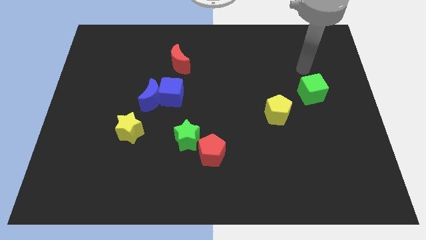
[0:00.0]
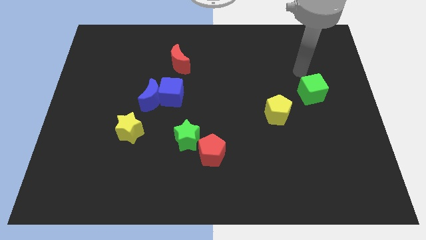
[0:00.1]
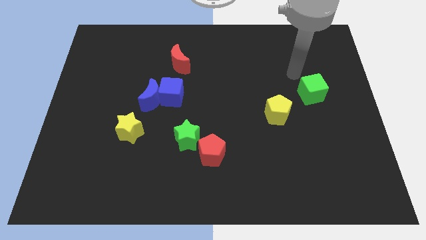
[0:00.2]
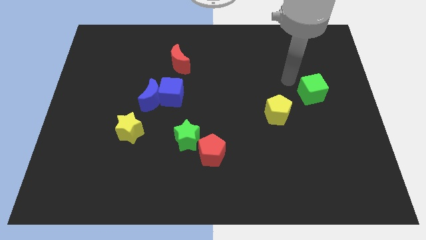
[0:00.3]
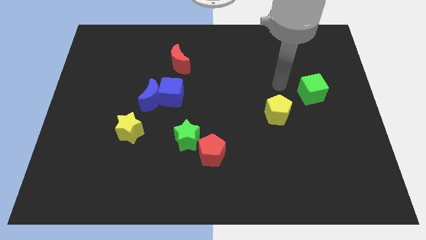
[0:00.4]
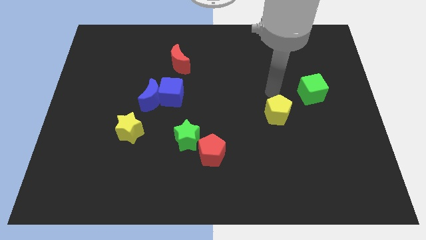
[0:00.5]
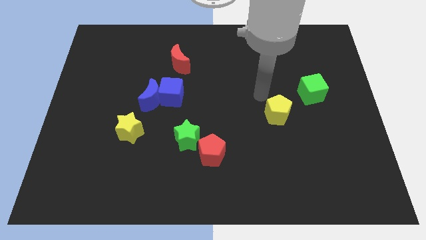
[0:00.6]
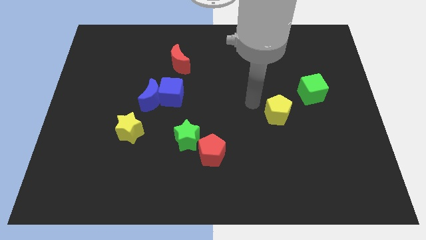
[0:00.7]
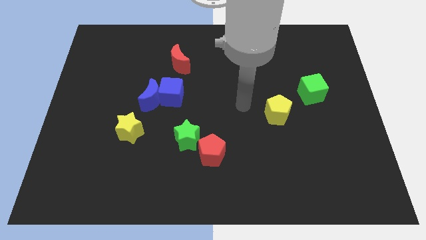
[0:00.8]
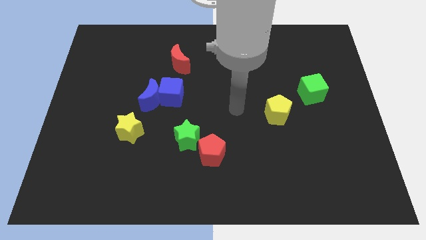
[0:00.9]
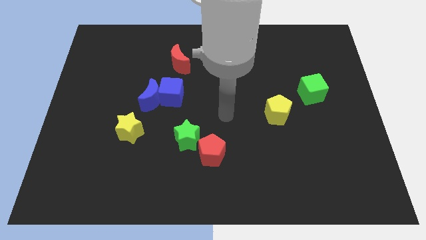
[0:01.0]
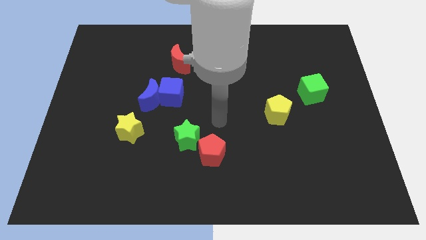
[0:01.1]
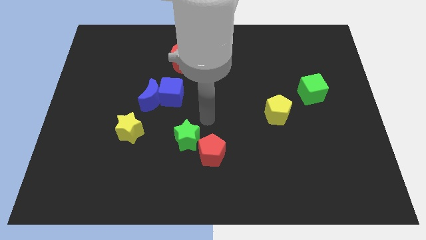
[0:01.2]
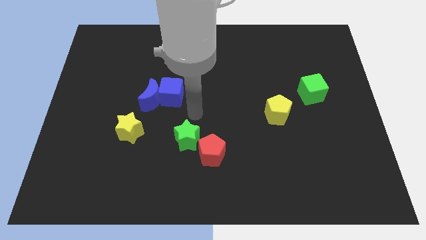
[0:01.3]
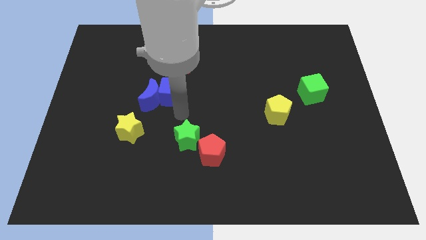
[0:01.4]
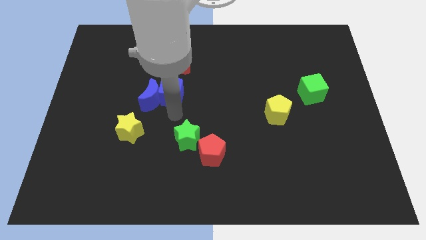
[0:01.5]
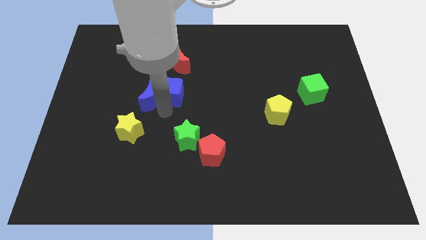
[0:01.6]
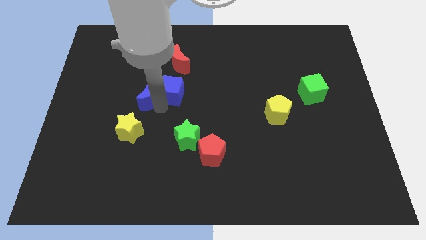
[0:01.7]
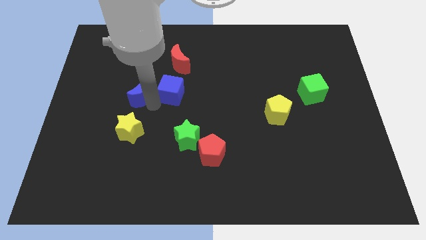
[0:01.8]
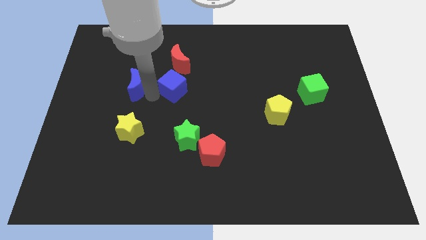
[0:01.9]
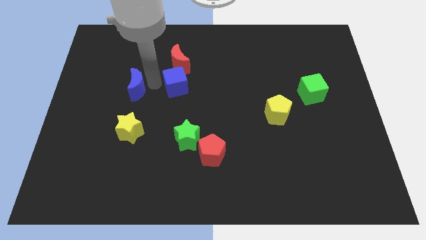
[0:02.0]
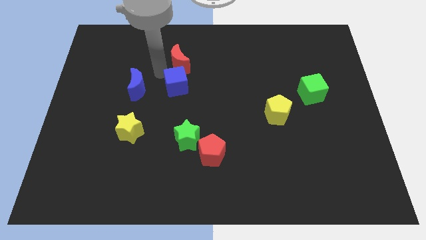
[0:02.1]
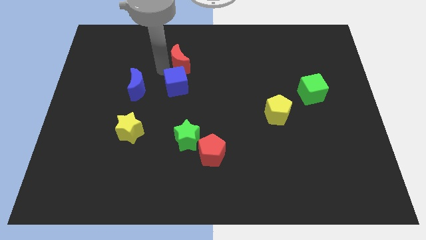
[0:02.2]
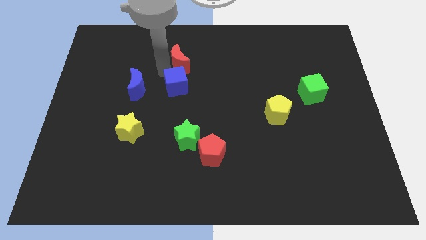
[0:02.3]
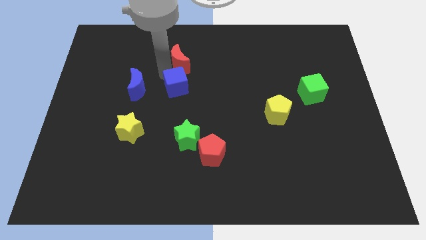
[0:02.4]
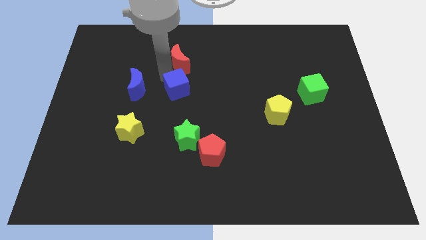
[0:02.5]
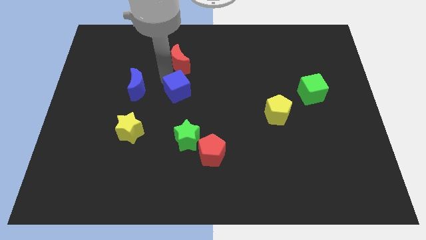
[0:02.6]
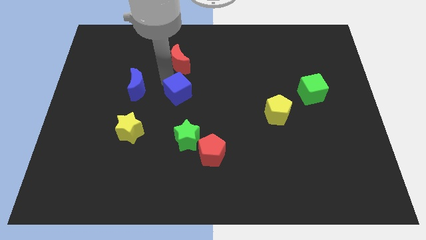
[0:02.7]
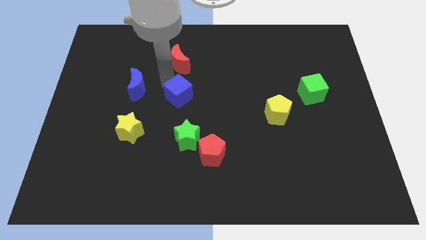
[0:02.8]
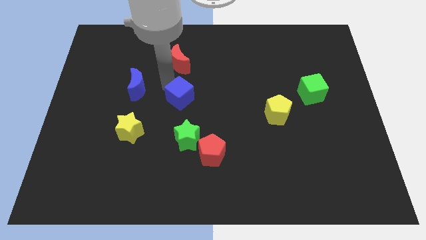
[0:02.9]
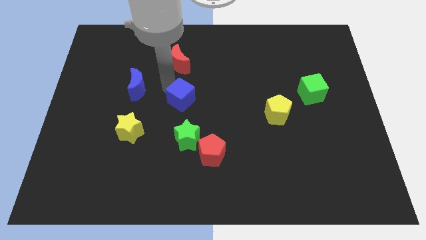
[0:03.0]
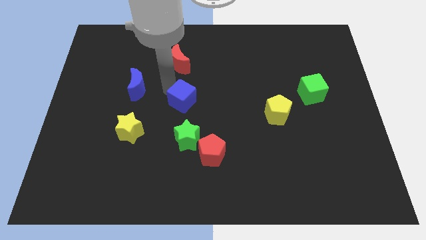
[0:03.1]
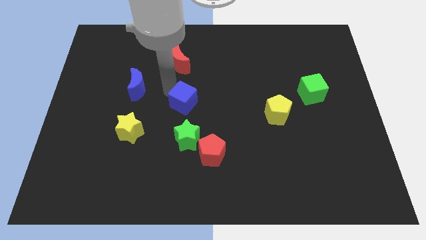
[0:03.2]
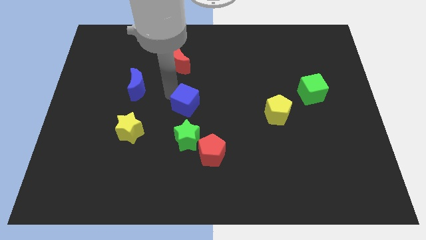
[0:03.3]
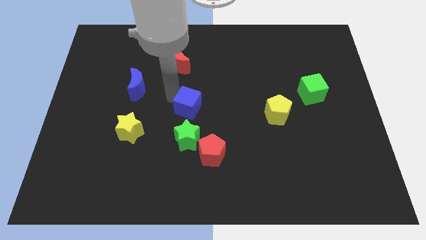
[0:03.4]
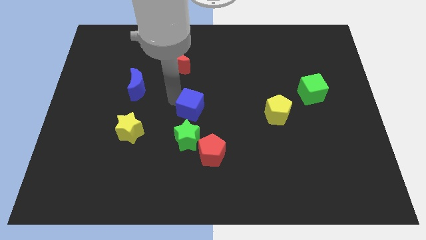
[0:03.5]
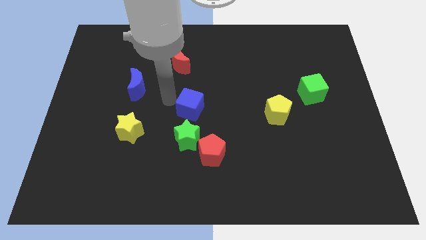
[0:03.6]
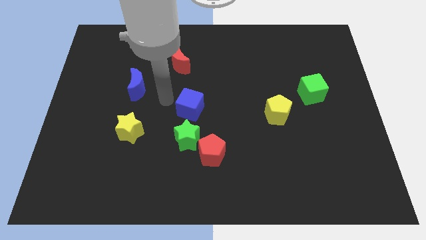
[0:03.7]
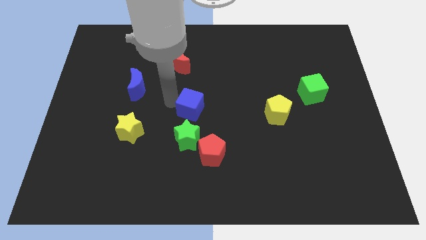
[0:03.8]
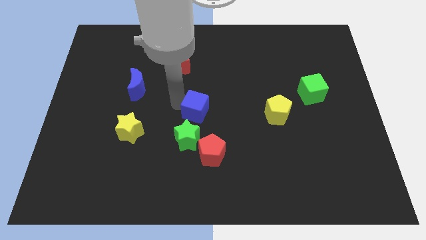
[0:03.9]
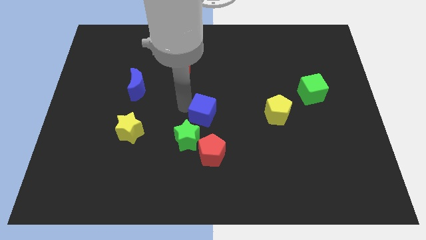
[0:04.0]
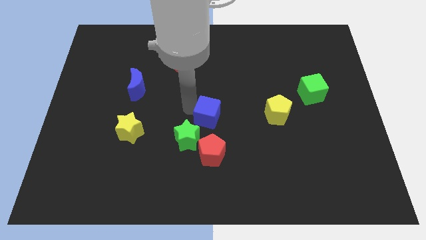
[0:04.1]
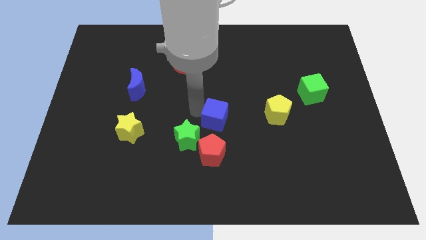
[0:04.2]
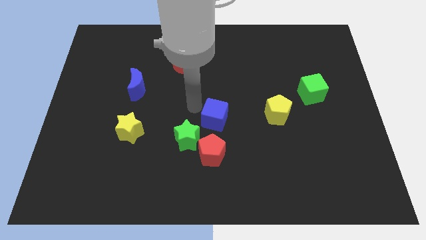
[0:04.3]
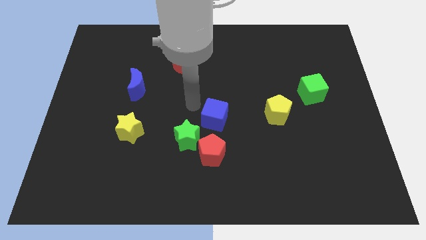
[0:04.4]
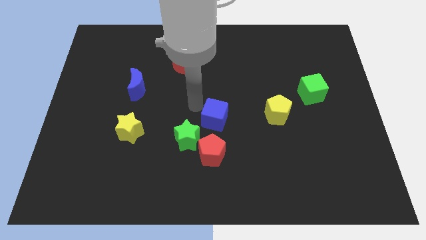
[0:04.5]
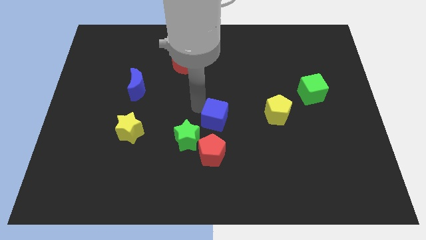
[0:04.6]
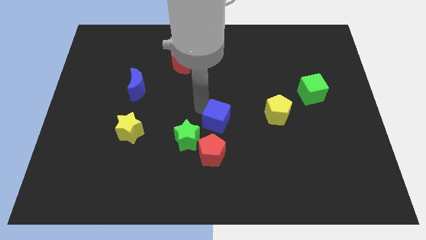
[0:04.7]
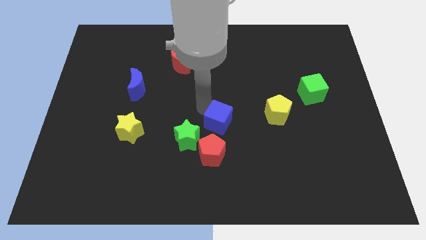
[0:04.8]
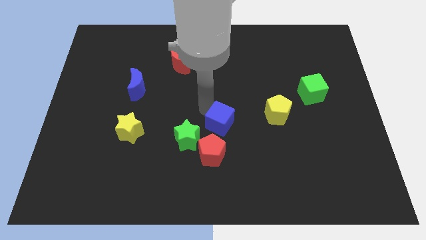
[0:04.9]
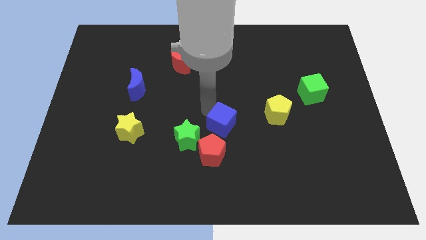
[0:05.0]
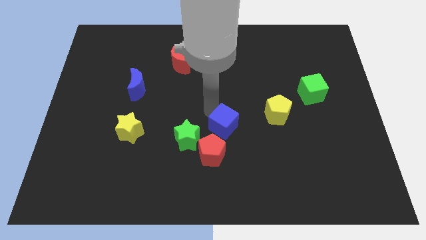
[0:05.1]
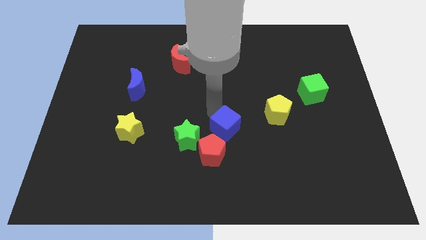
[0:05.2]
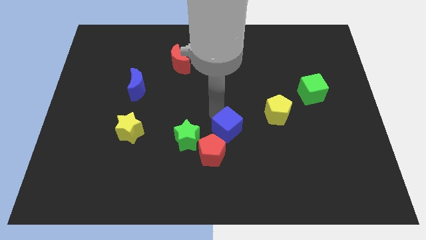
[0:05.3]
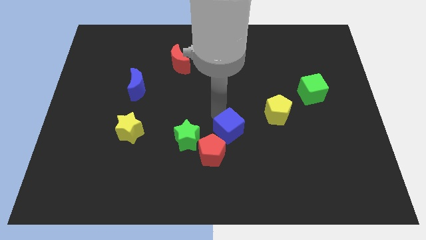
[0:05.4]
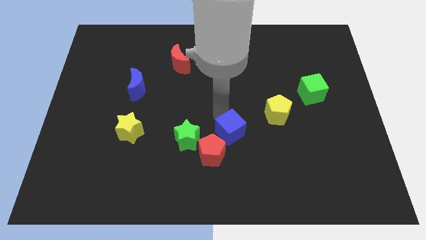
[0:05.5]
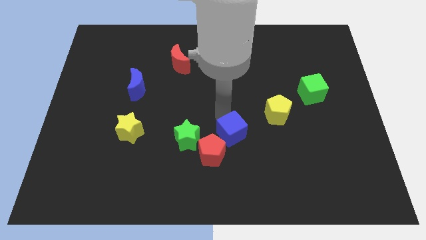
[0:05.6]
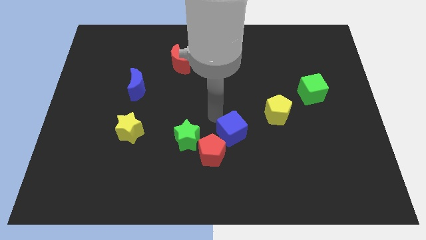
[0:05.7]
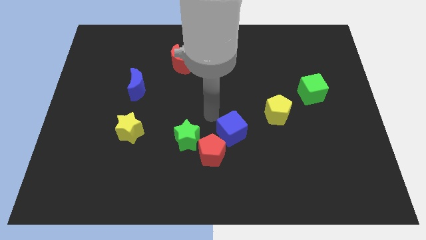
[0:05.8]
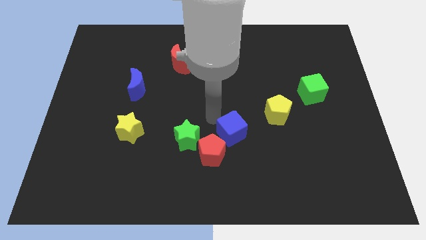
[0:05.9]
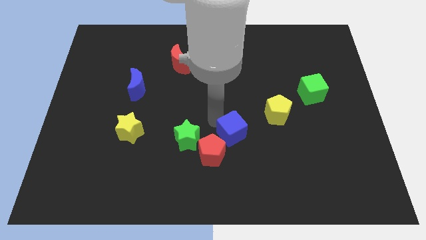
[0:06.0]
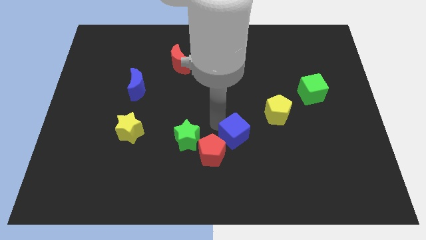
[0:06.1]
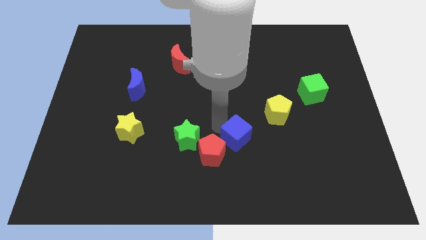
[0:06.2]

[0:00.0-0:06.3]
put the blue cube just right of the red pentagon

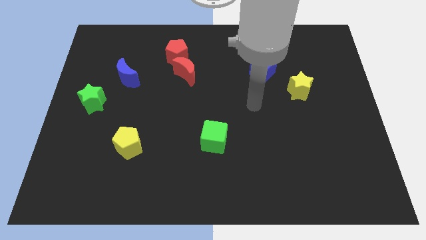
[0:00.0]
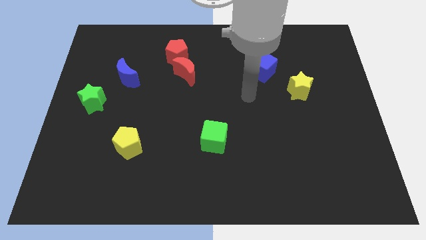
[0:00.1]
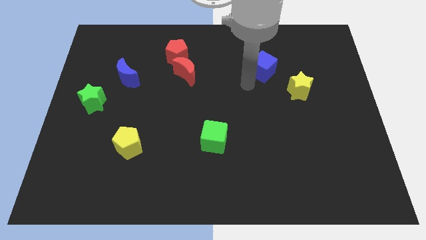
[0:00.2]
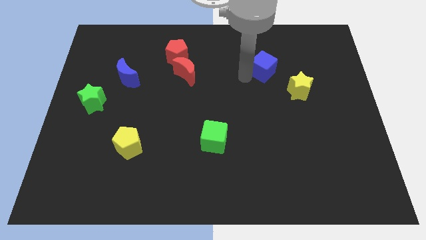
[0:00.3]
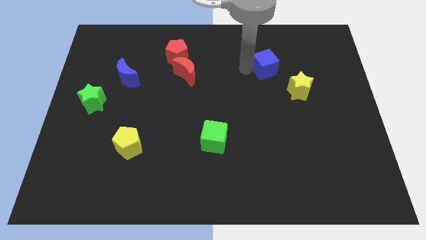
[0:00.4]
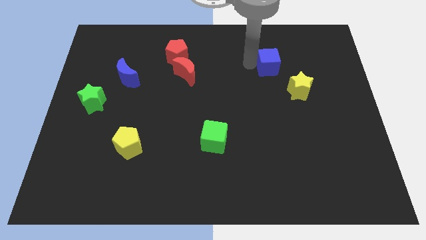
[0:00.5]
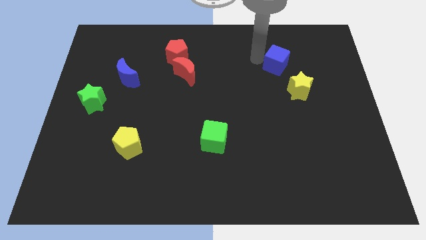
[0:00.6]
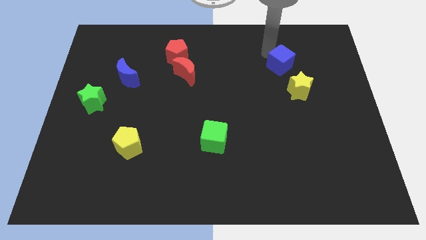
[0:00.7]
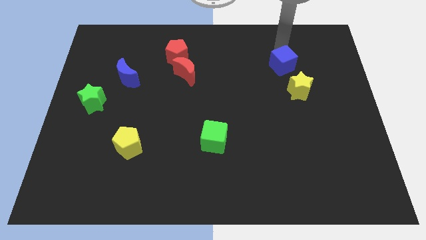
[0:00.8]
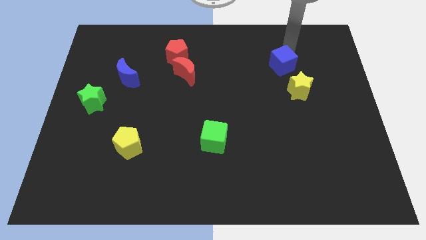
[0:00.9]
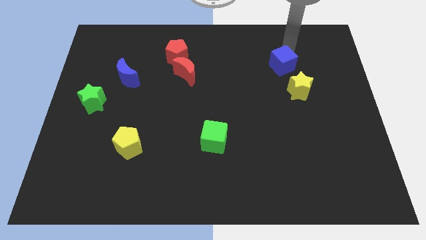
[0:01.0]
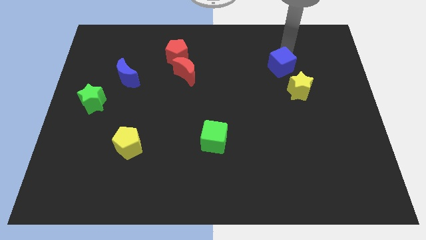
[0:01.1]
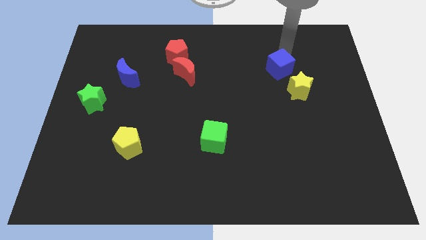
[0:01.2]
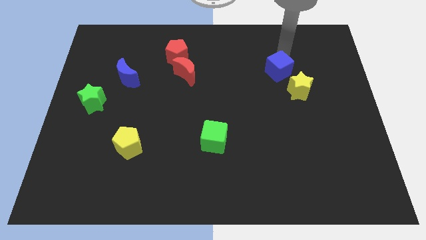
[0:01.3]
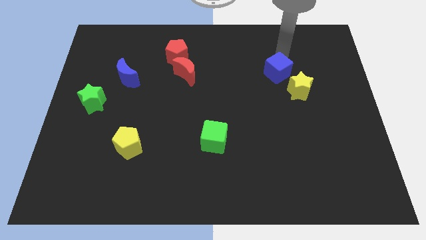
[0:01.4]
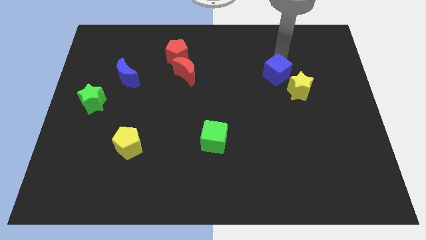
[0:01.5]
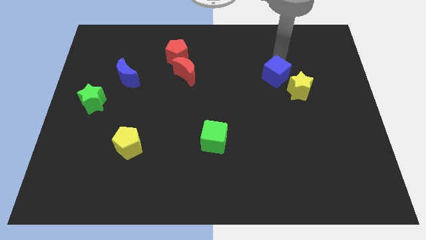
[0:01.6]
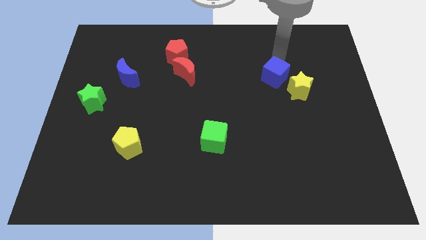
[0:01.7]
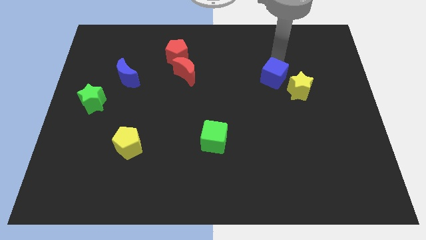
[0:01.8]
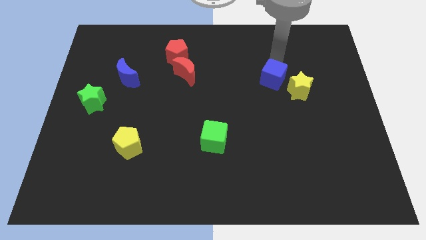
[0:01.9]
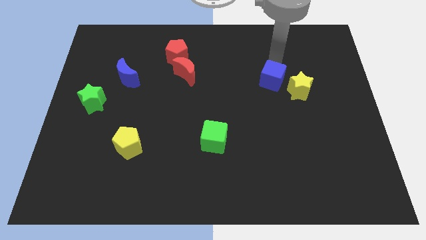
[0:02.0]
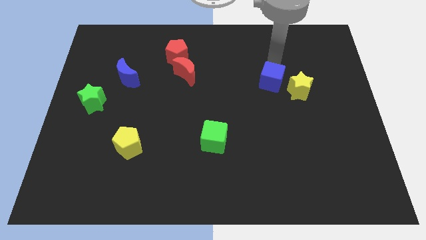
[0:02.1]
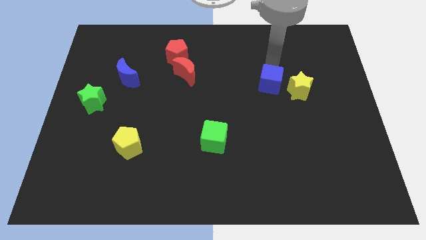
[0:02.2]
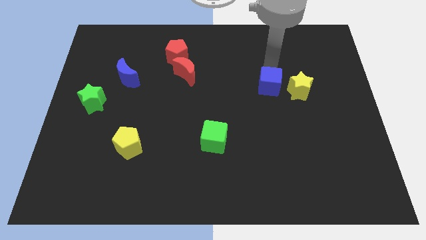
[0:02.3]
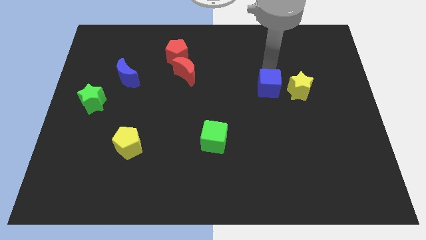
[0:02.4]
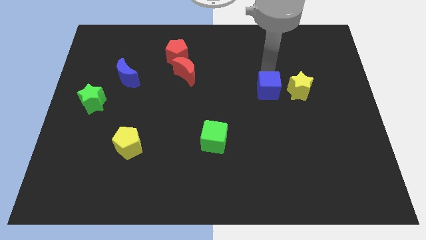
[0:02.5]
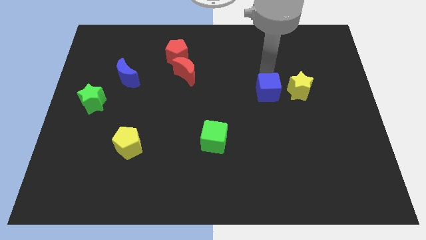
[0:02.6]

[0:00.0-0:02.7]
slide the blue cube to the bottom left of the yellow star
